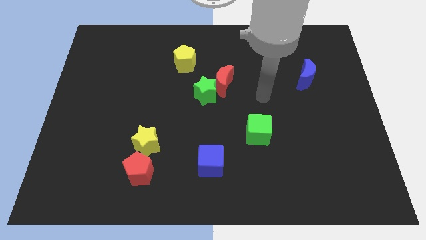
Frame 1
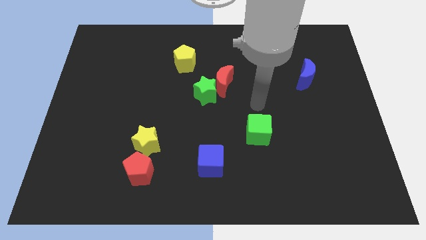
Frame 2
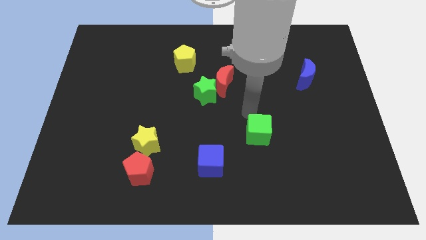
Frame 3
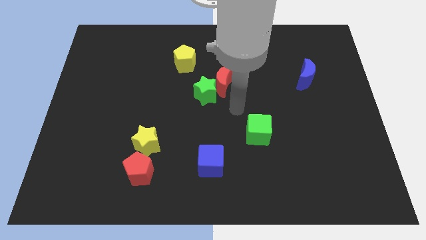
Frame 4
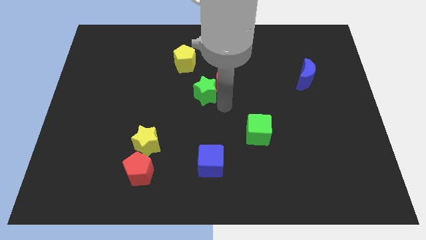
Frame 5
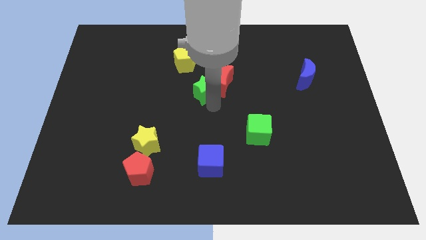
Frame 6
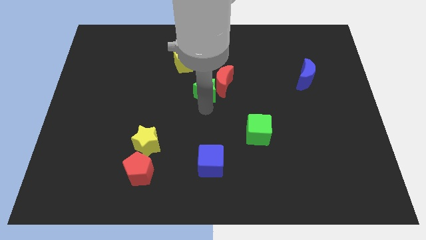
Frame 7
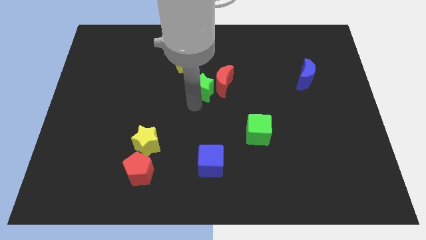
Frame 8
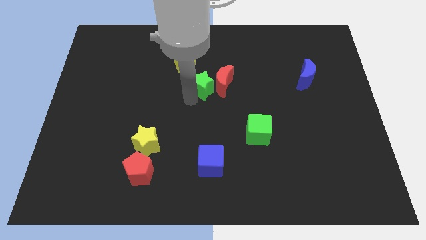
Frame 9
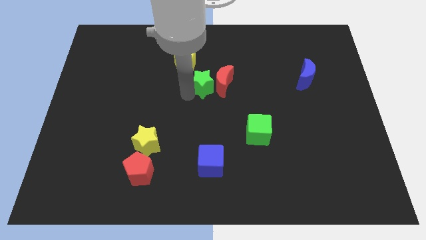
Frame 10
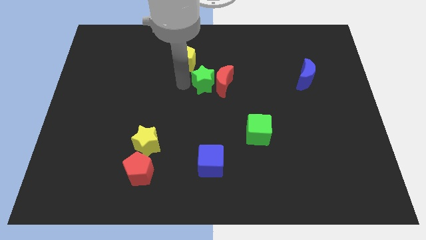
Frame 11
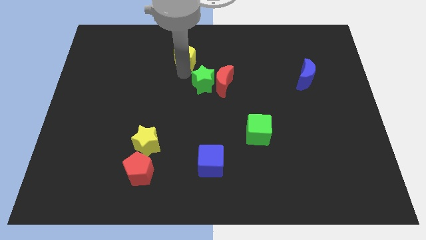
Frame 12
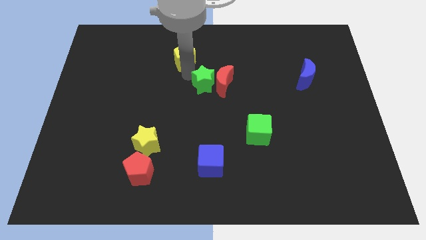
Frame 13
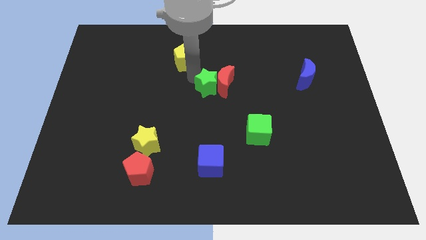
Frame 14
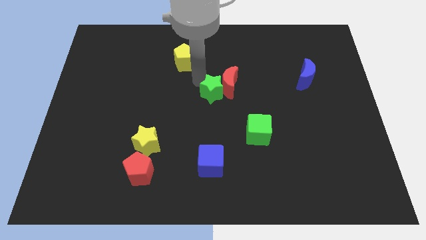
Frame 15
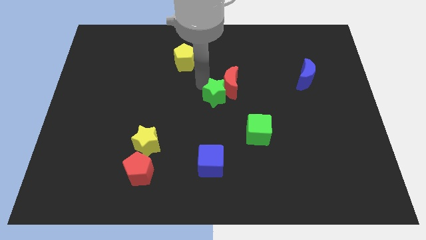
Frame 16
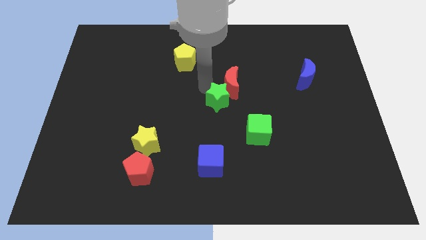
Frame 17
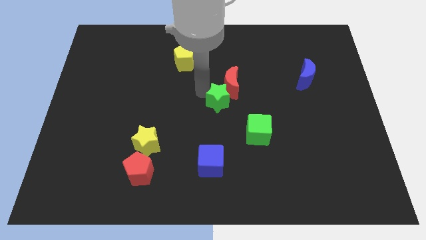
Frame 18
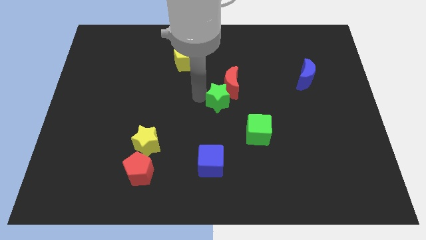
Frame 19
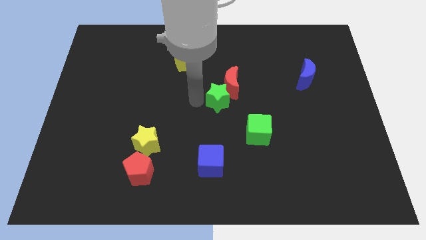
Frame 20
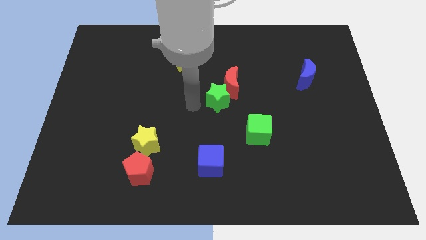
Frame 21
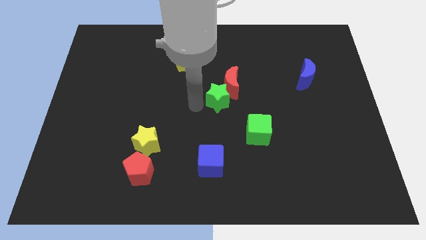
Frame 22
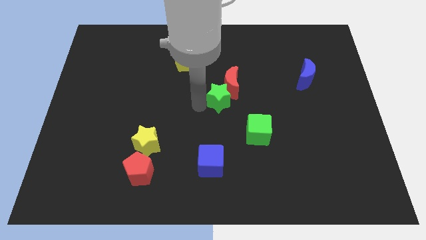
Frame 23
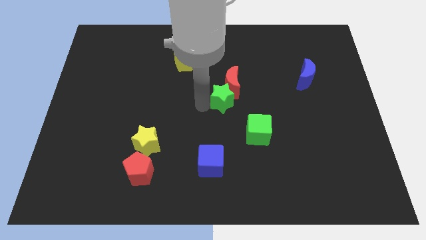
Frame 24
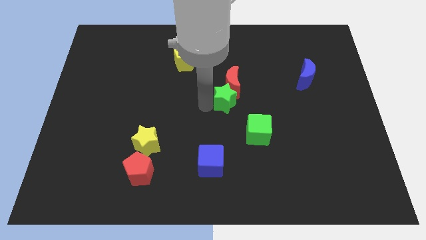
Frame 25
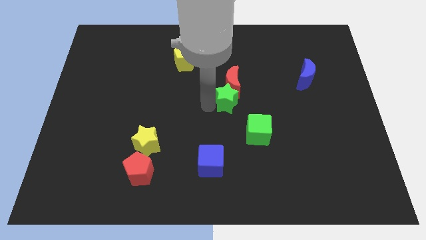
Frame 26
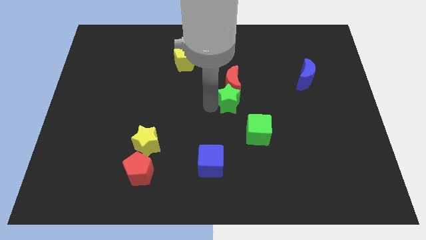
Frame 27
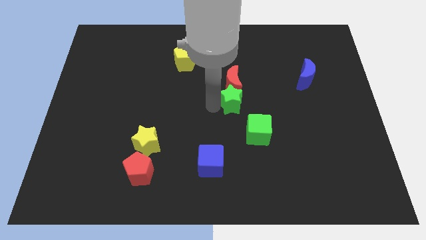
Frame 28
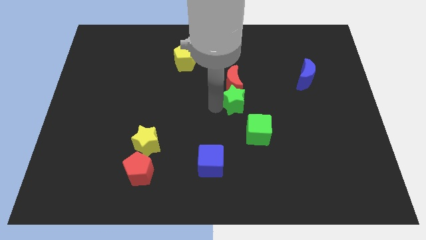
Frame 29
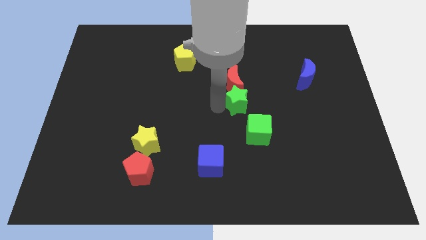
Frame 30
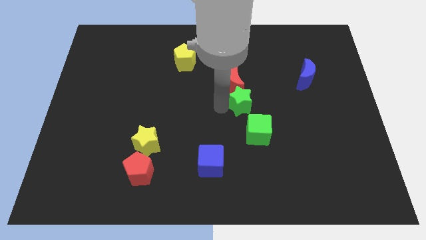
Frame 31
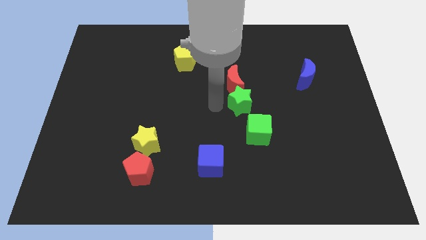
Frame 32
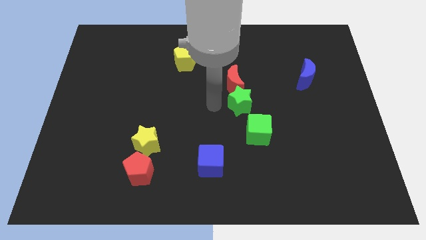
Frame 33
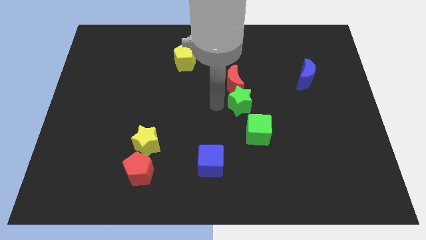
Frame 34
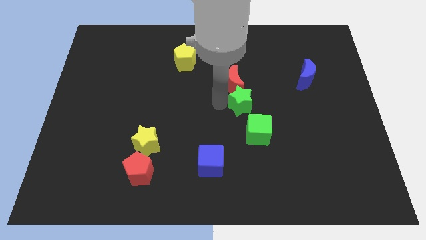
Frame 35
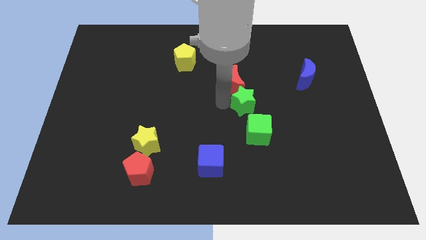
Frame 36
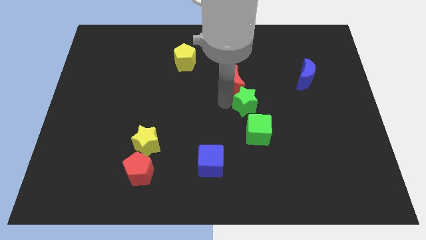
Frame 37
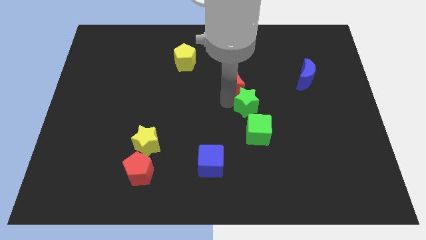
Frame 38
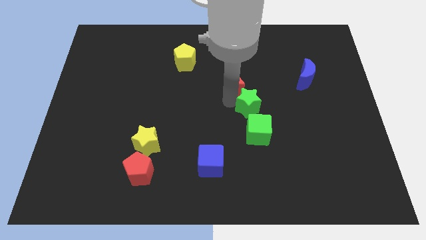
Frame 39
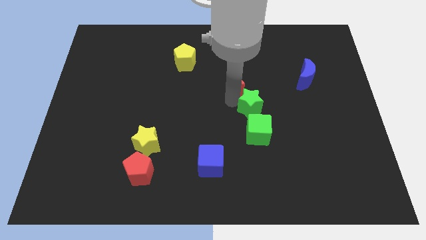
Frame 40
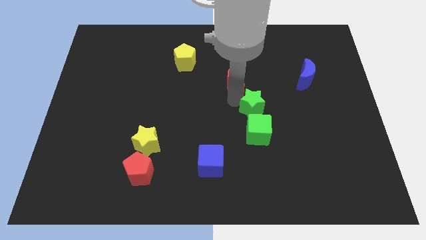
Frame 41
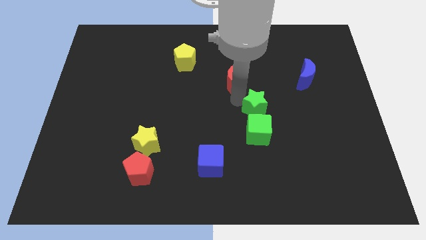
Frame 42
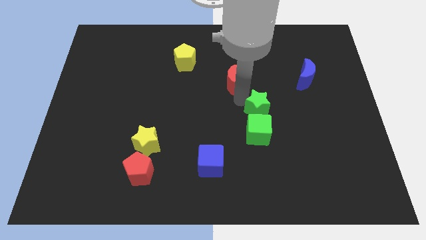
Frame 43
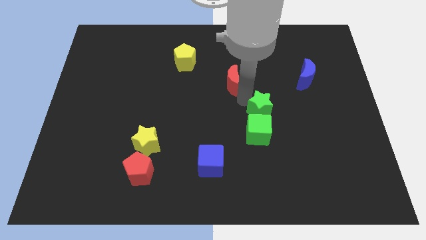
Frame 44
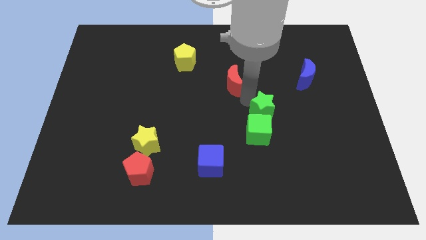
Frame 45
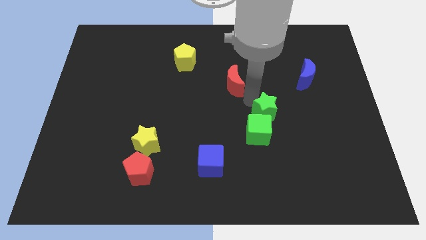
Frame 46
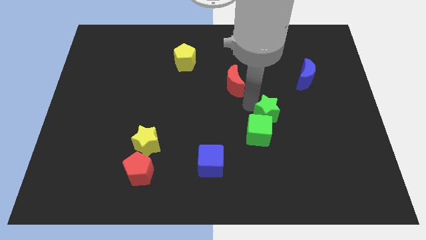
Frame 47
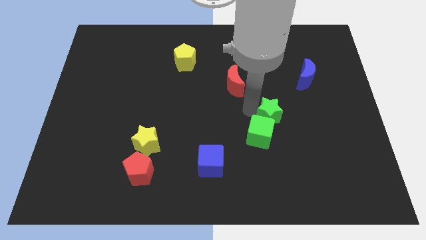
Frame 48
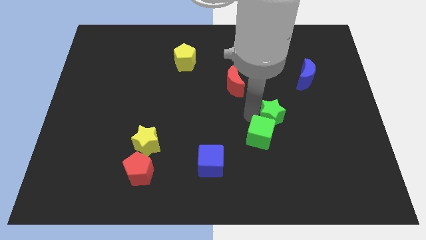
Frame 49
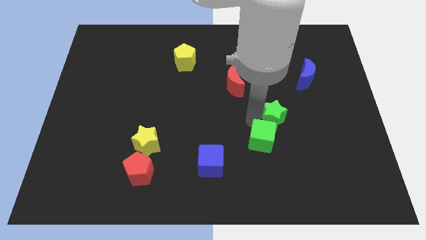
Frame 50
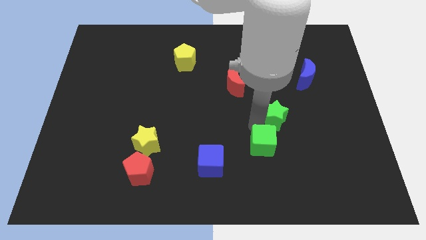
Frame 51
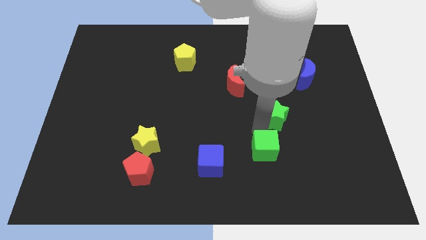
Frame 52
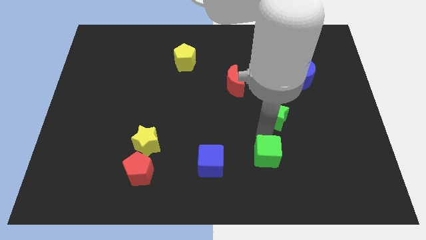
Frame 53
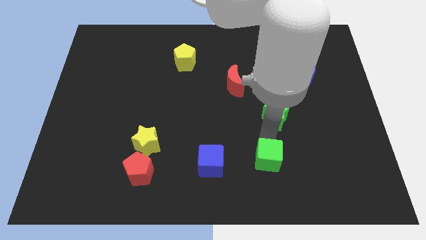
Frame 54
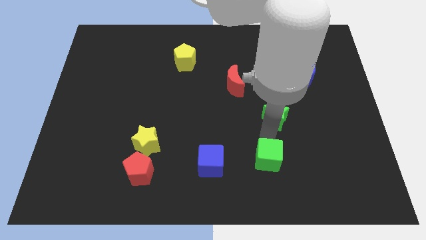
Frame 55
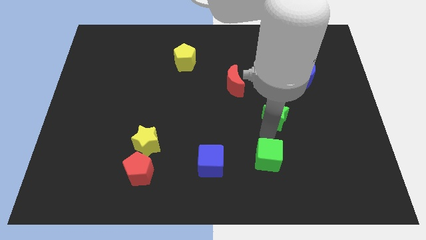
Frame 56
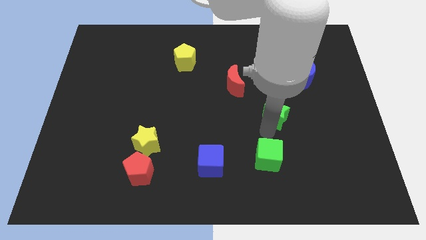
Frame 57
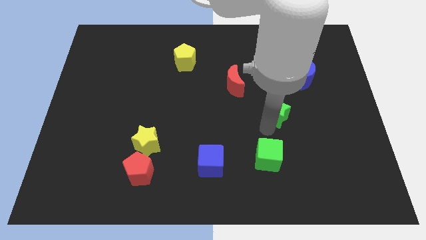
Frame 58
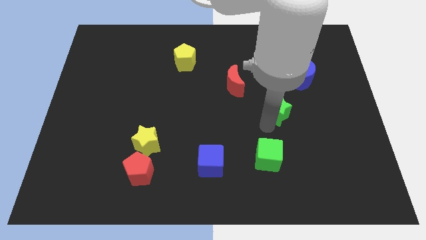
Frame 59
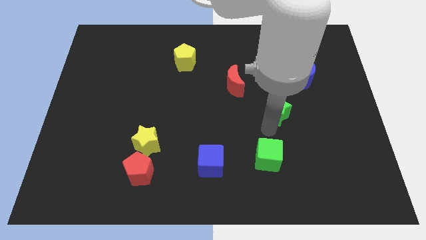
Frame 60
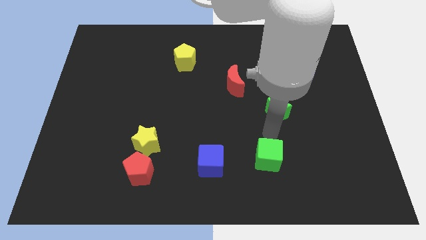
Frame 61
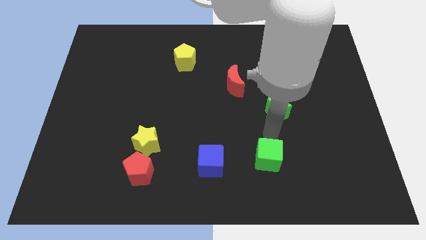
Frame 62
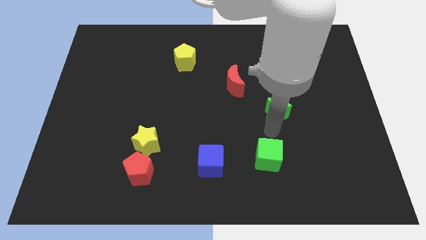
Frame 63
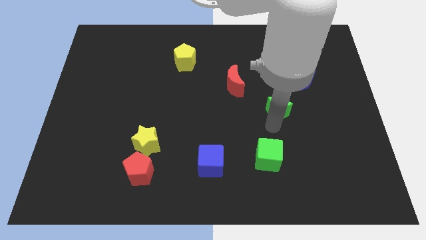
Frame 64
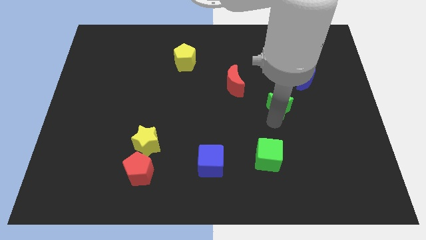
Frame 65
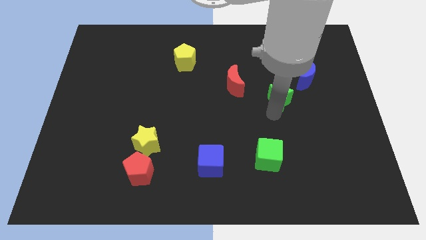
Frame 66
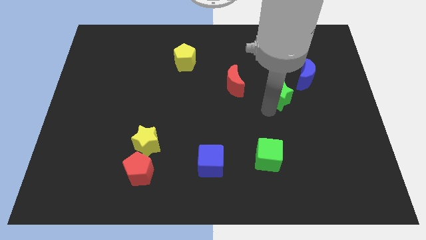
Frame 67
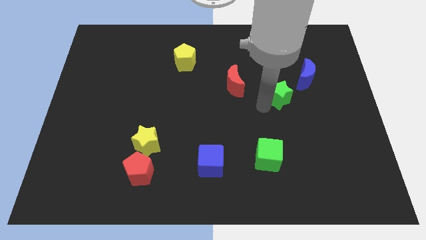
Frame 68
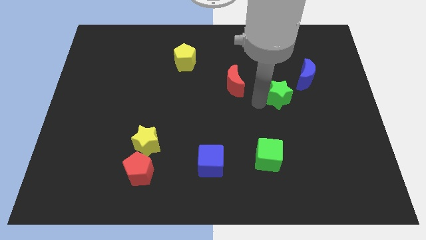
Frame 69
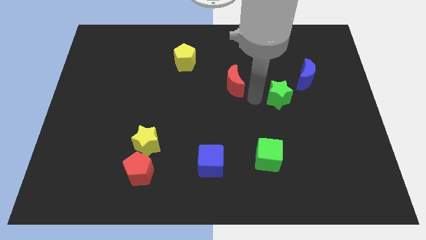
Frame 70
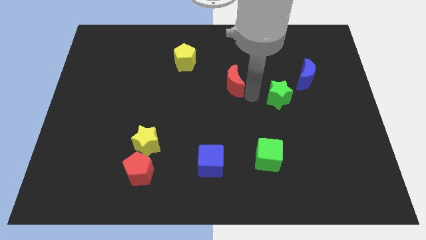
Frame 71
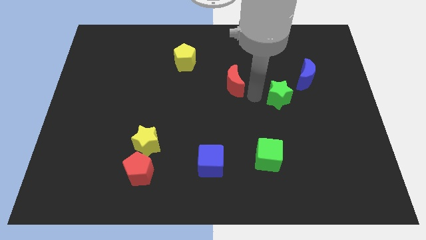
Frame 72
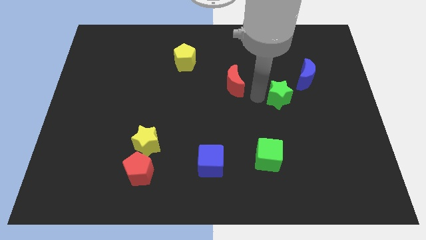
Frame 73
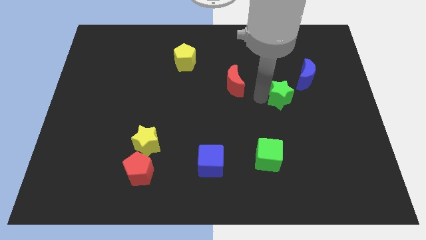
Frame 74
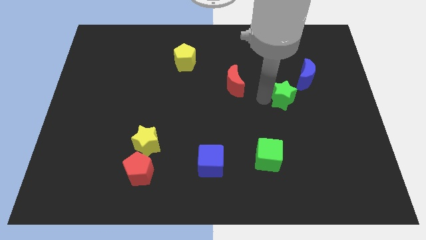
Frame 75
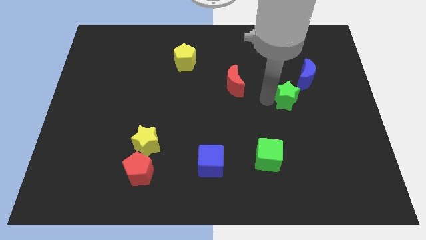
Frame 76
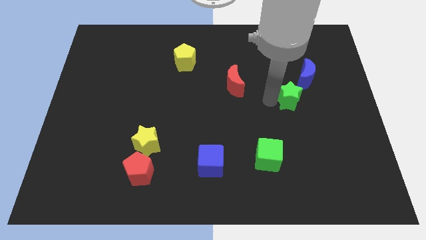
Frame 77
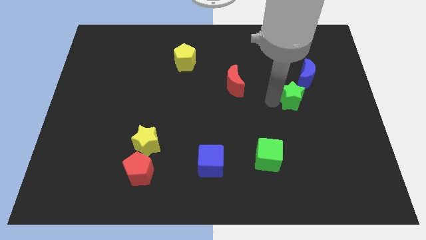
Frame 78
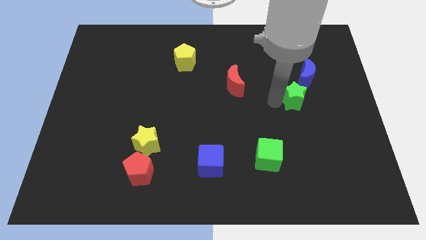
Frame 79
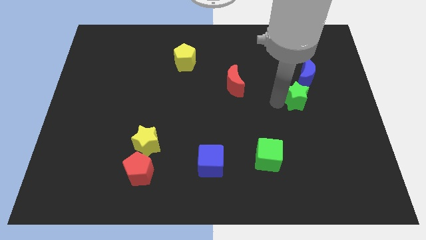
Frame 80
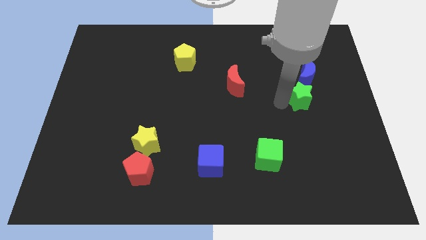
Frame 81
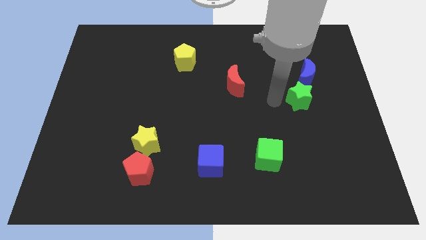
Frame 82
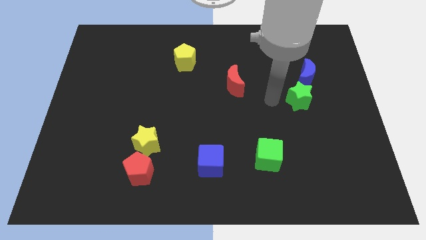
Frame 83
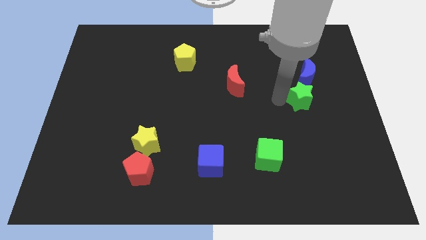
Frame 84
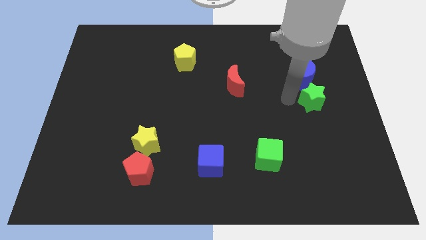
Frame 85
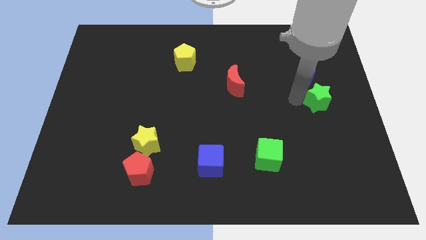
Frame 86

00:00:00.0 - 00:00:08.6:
slide the green star to the right side of the board
